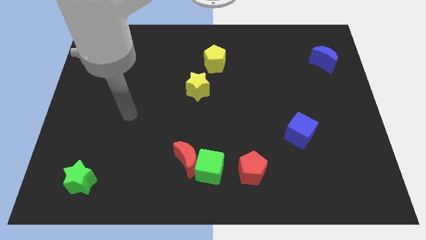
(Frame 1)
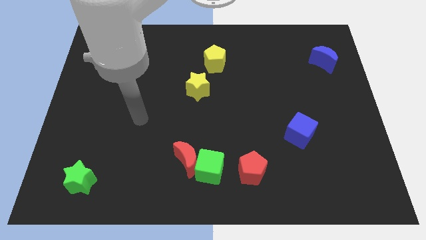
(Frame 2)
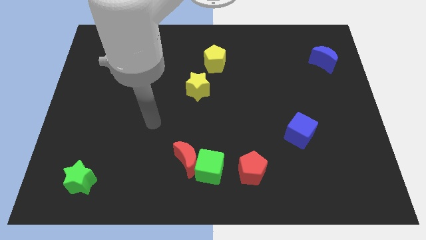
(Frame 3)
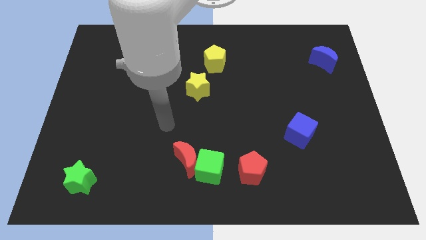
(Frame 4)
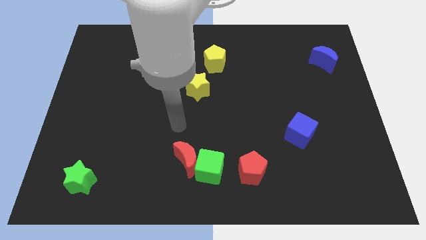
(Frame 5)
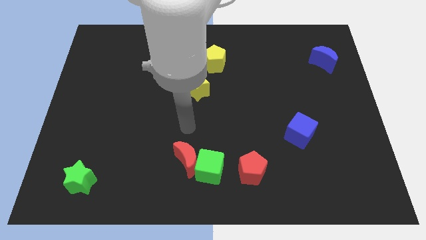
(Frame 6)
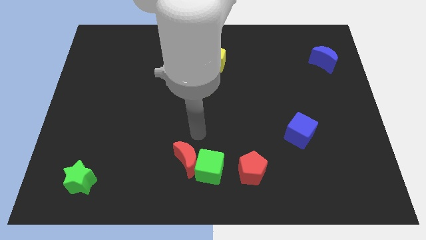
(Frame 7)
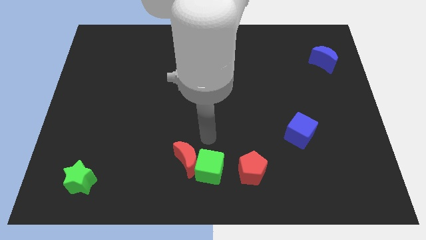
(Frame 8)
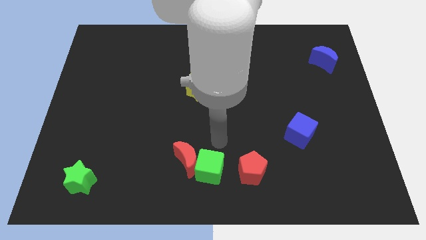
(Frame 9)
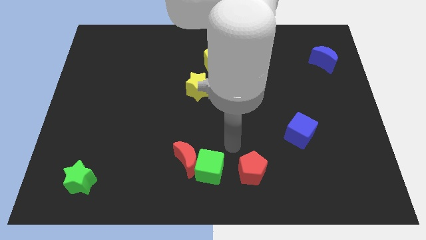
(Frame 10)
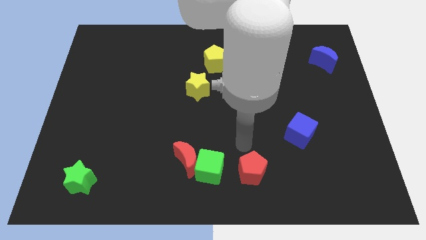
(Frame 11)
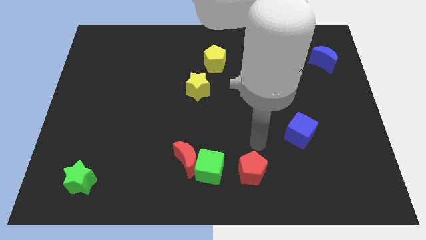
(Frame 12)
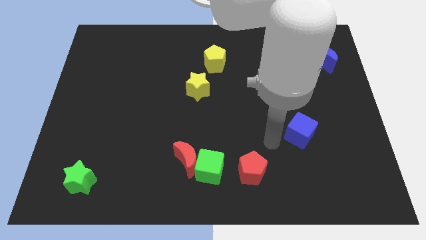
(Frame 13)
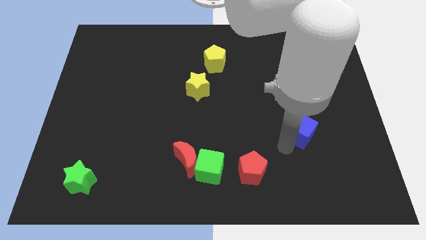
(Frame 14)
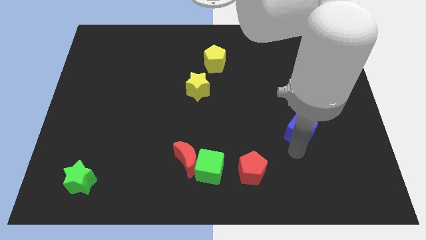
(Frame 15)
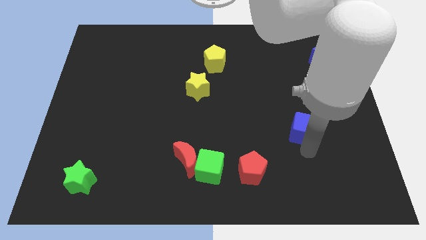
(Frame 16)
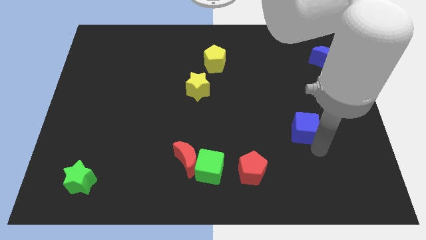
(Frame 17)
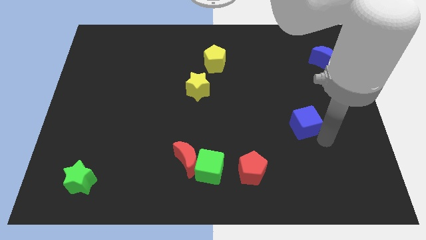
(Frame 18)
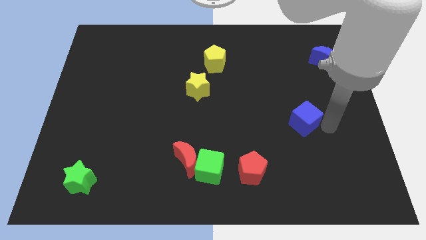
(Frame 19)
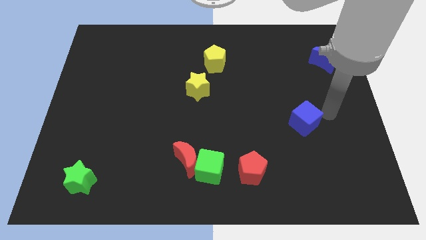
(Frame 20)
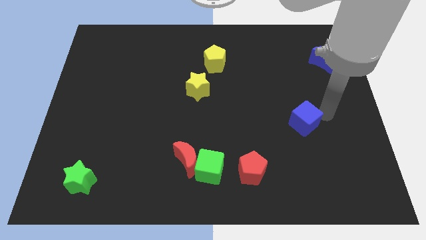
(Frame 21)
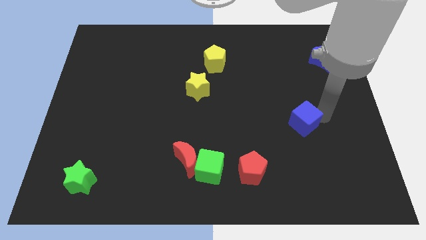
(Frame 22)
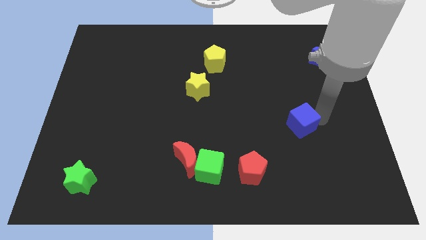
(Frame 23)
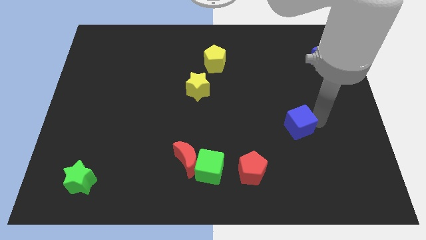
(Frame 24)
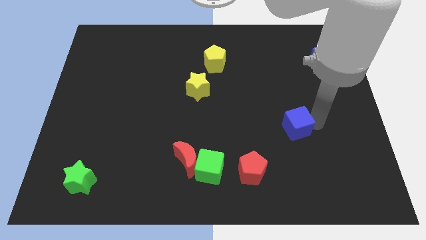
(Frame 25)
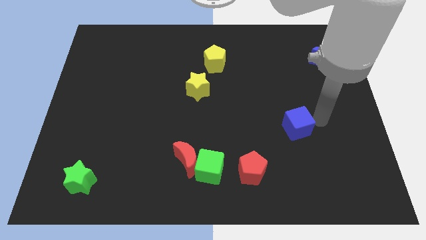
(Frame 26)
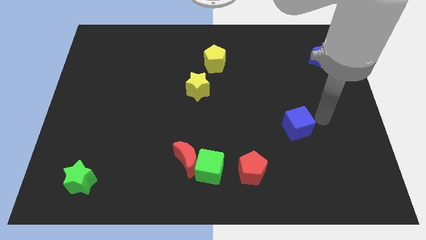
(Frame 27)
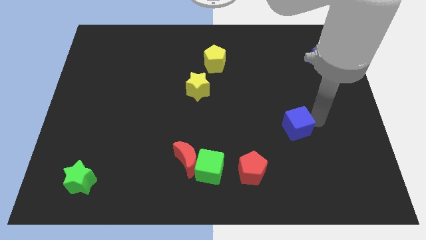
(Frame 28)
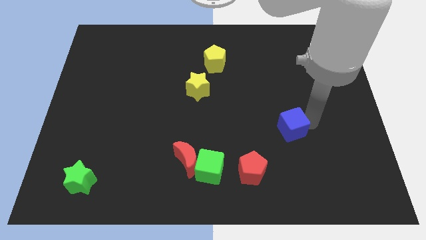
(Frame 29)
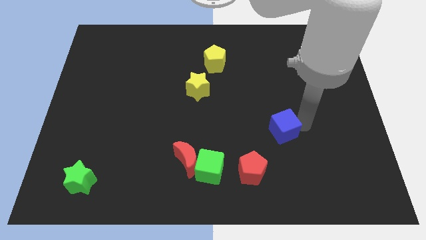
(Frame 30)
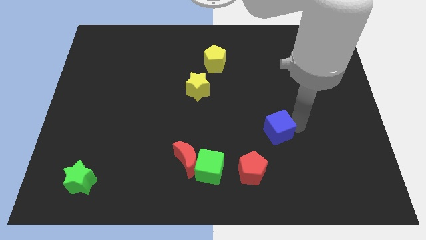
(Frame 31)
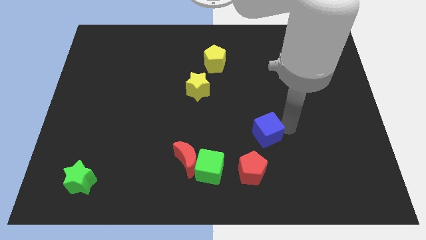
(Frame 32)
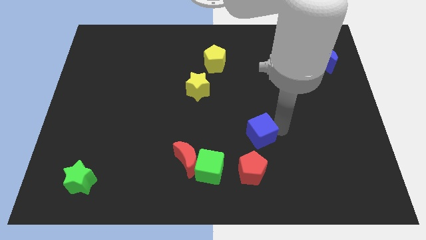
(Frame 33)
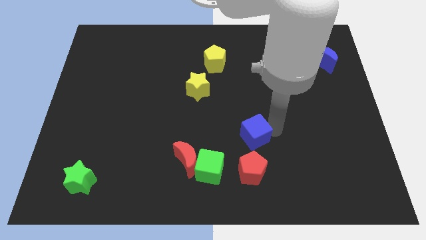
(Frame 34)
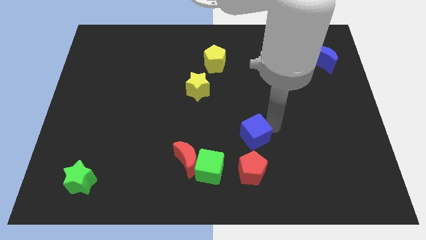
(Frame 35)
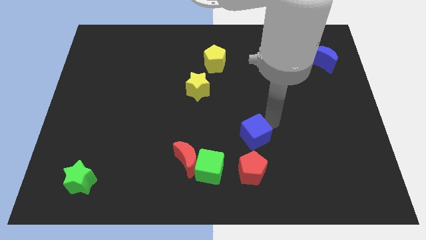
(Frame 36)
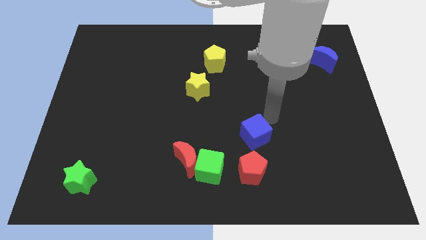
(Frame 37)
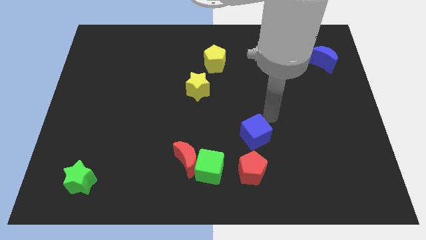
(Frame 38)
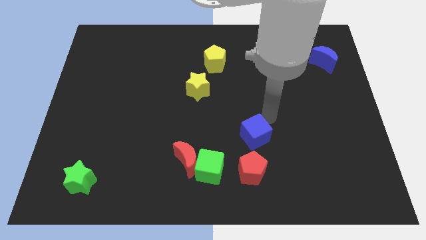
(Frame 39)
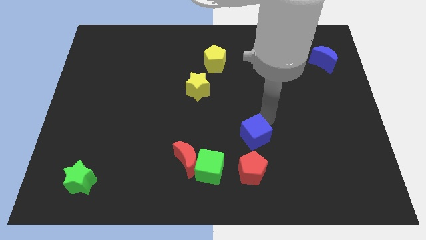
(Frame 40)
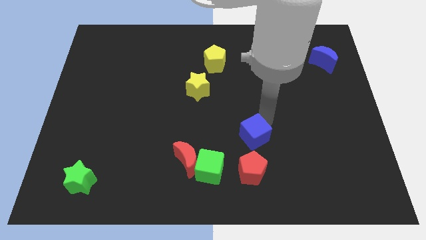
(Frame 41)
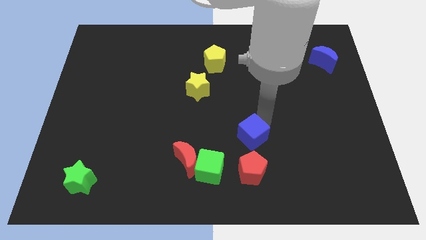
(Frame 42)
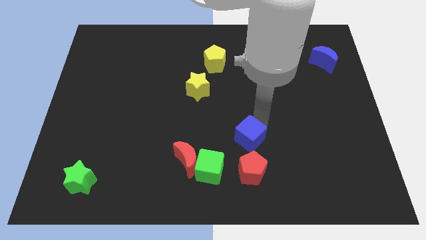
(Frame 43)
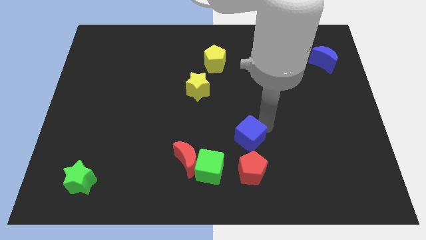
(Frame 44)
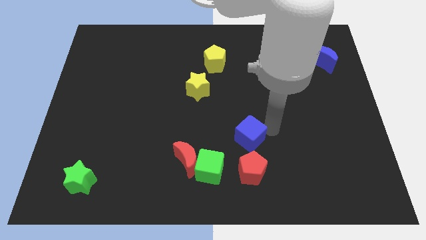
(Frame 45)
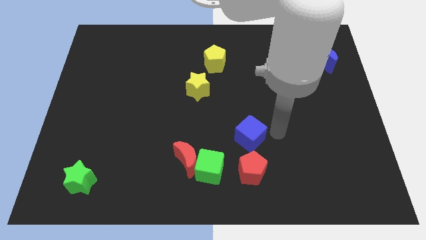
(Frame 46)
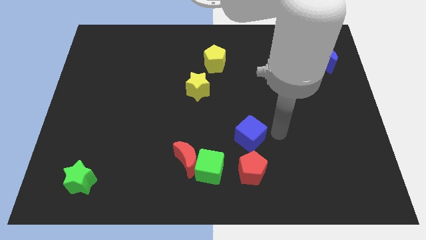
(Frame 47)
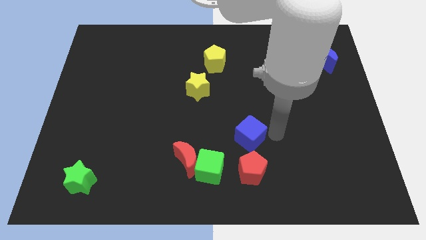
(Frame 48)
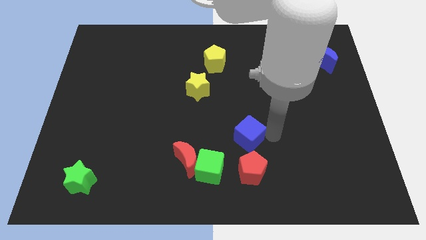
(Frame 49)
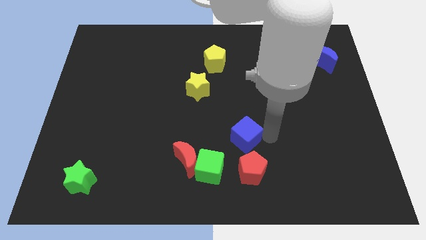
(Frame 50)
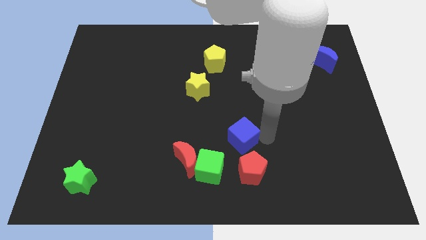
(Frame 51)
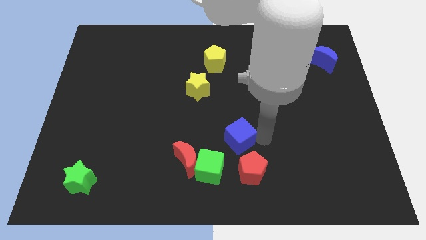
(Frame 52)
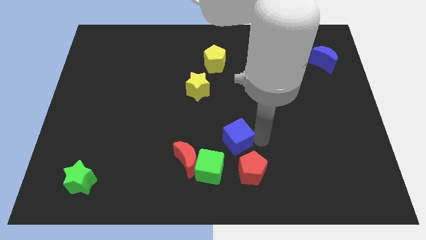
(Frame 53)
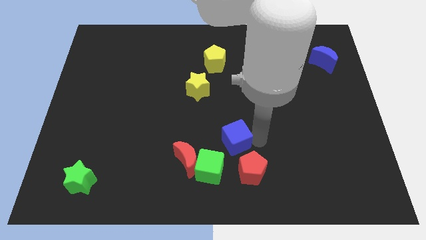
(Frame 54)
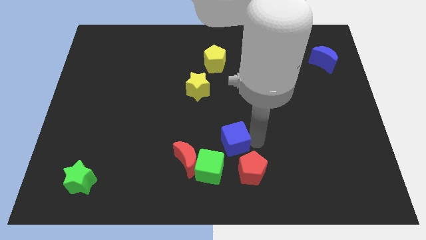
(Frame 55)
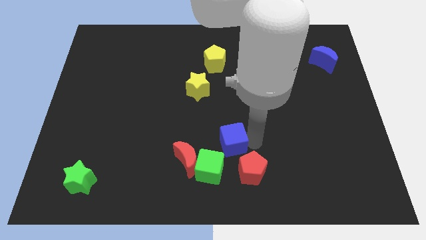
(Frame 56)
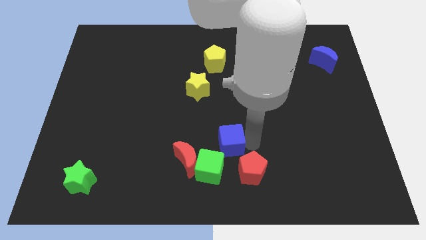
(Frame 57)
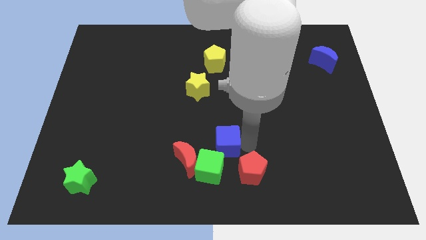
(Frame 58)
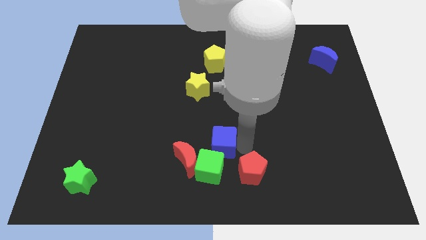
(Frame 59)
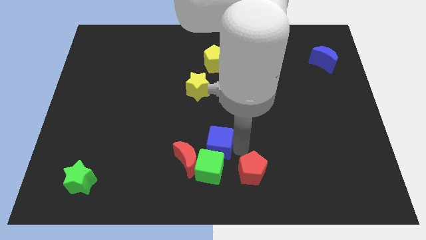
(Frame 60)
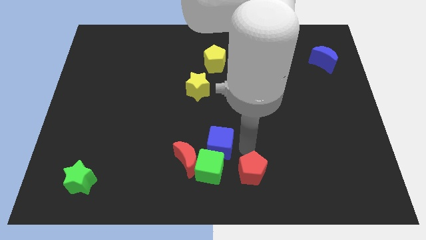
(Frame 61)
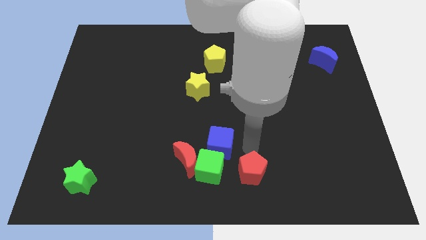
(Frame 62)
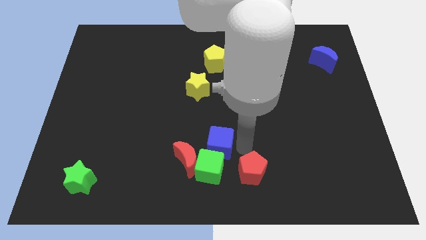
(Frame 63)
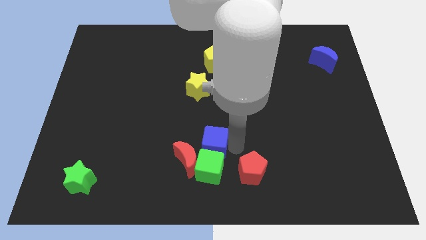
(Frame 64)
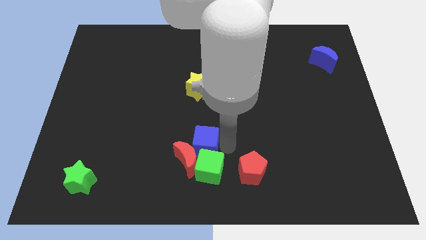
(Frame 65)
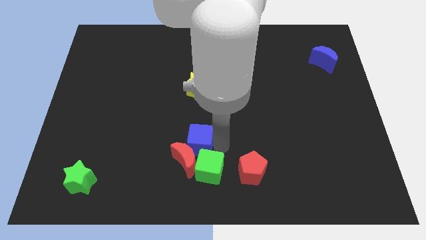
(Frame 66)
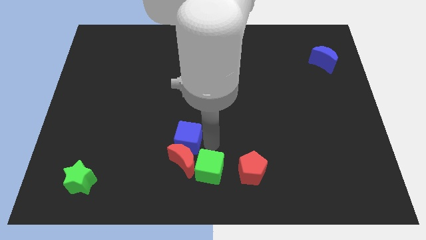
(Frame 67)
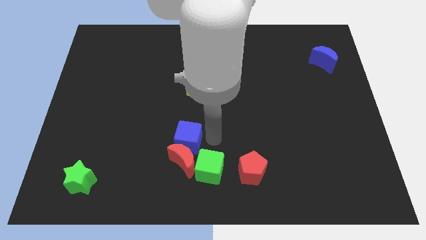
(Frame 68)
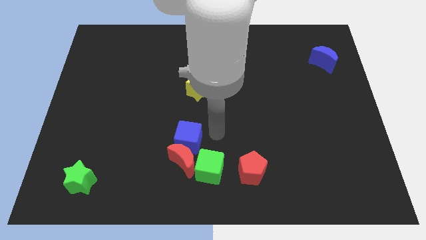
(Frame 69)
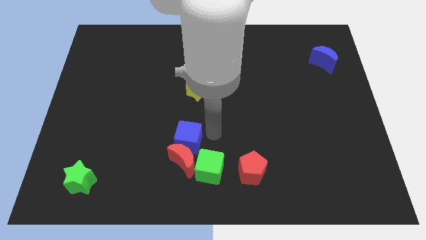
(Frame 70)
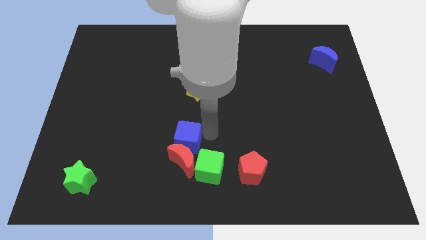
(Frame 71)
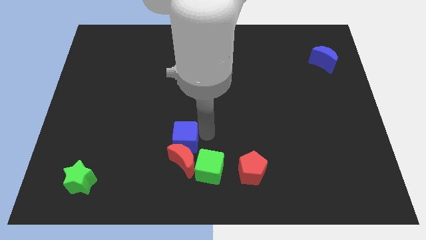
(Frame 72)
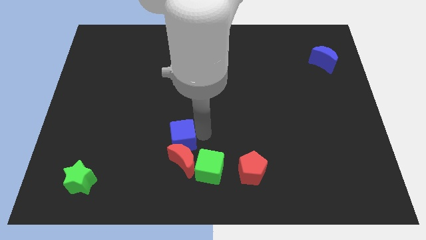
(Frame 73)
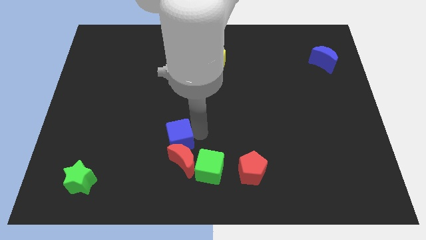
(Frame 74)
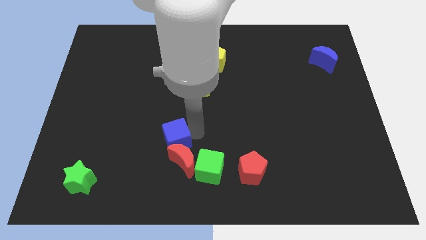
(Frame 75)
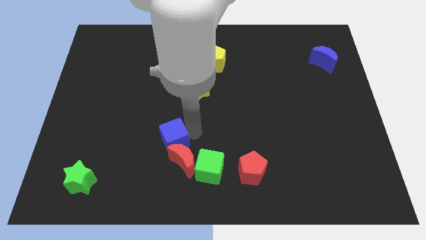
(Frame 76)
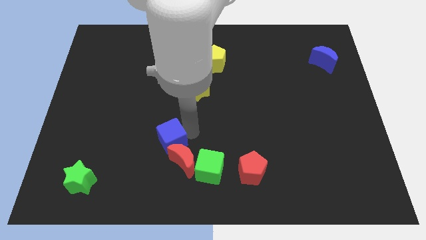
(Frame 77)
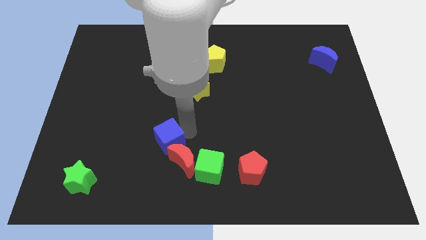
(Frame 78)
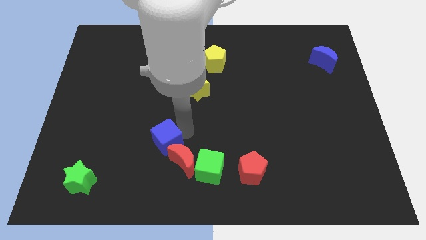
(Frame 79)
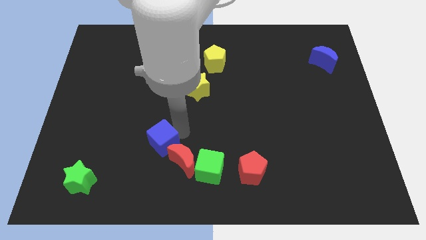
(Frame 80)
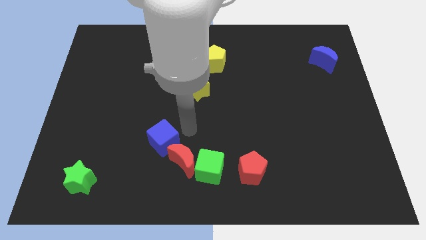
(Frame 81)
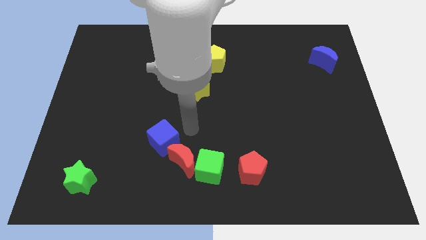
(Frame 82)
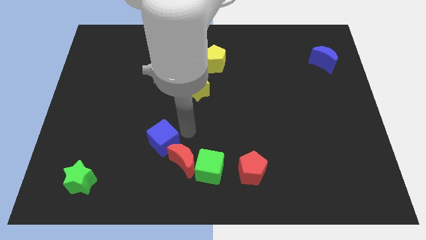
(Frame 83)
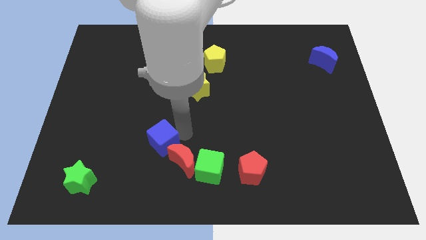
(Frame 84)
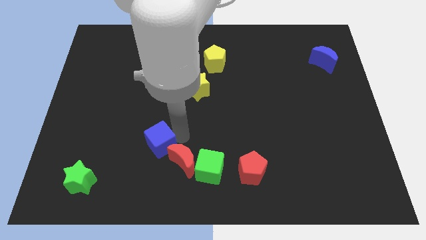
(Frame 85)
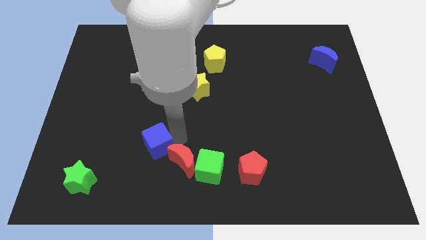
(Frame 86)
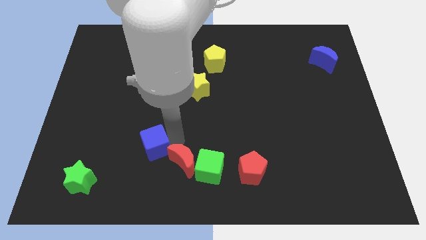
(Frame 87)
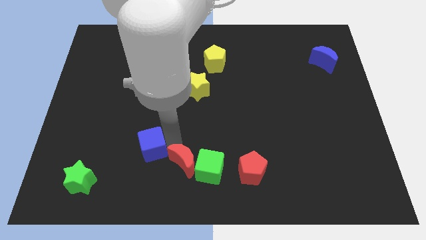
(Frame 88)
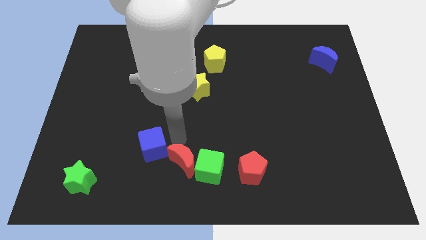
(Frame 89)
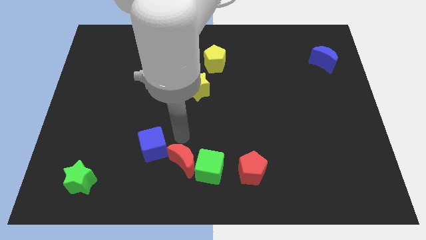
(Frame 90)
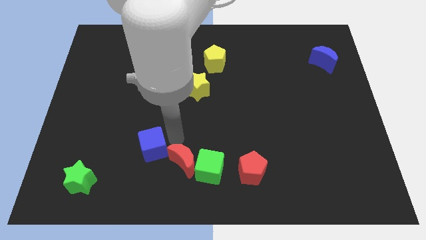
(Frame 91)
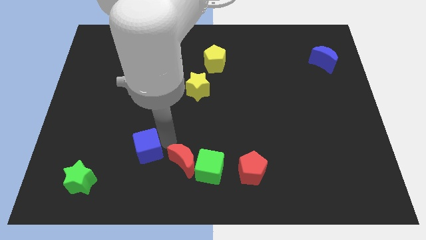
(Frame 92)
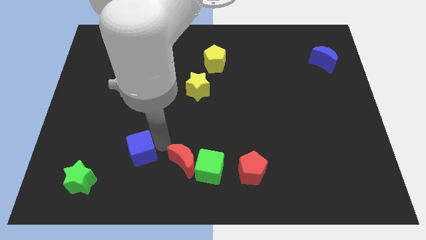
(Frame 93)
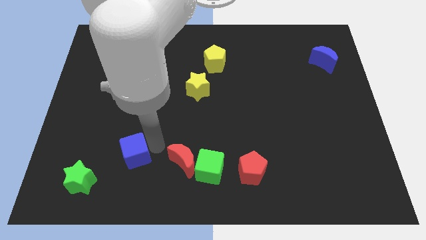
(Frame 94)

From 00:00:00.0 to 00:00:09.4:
put the blue cube diagonally up and to the right of the green star
